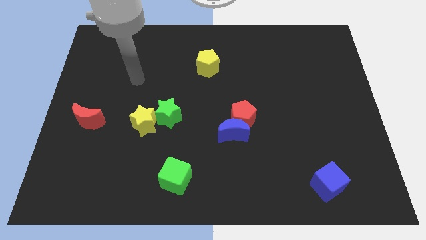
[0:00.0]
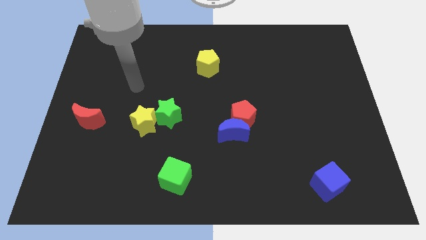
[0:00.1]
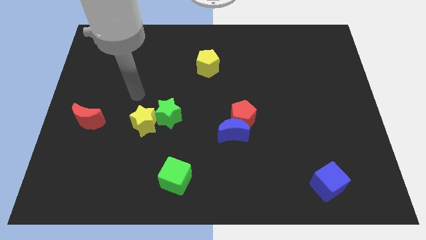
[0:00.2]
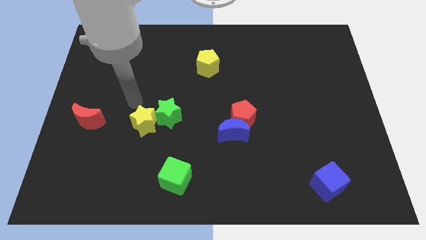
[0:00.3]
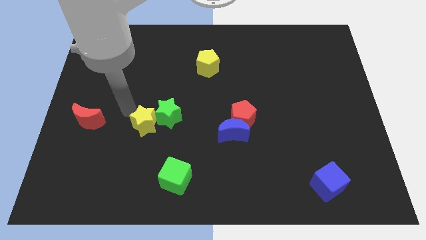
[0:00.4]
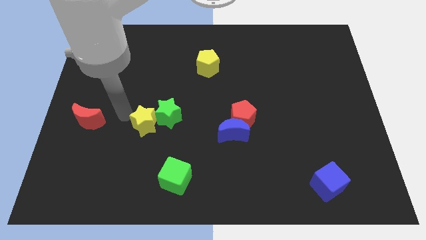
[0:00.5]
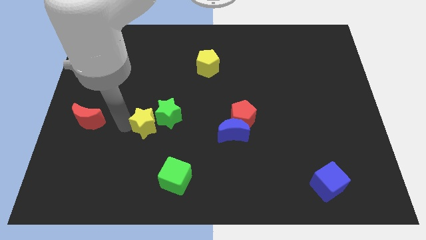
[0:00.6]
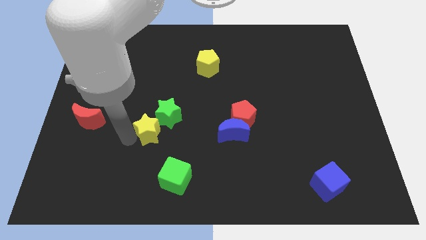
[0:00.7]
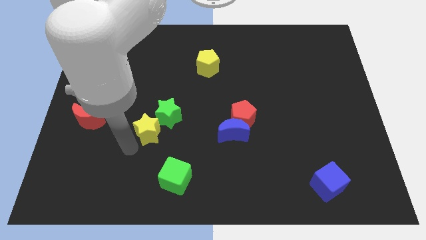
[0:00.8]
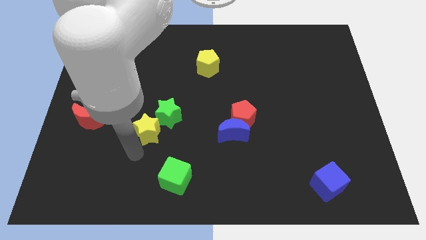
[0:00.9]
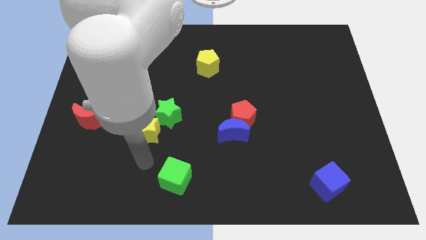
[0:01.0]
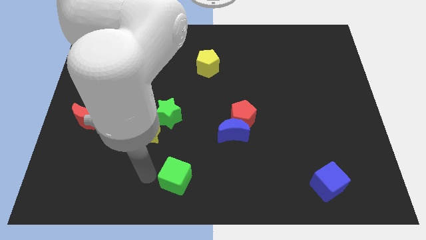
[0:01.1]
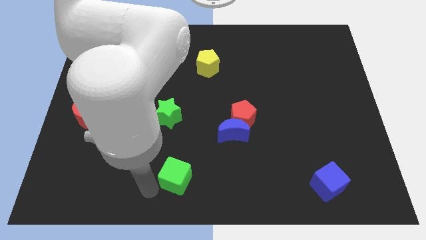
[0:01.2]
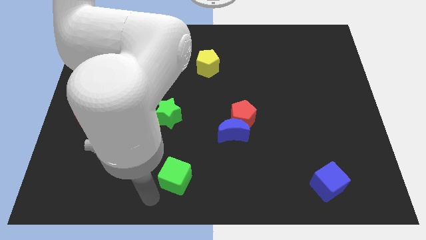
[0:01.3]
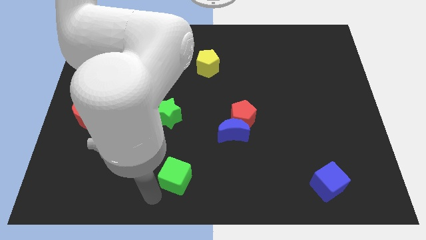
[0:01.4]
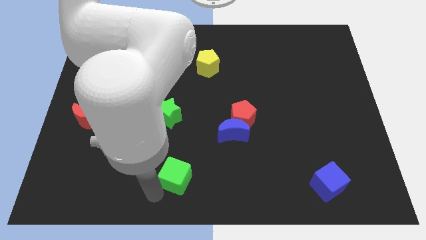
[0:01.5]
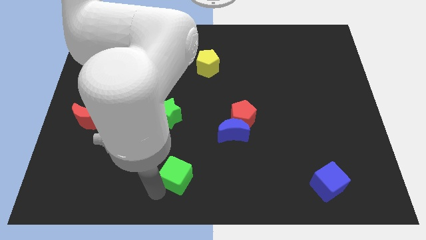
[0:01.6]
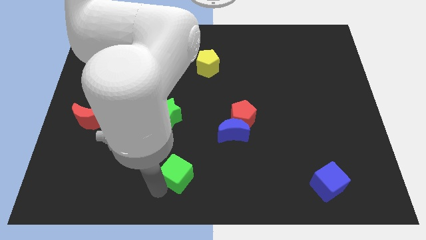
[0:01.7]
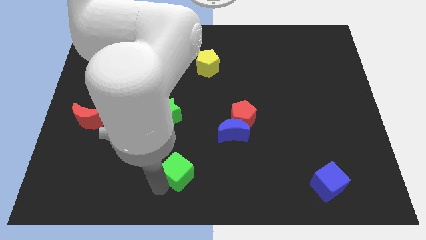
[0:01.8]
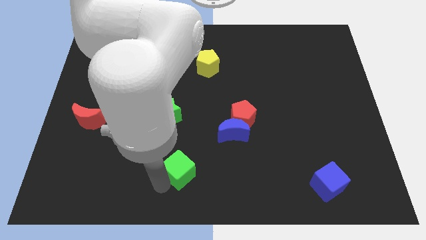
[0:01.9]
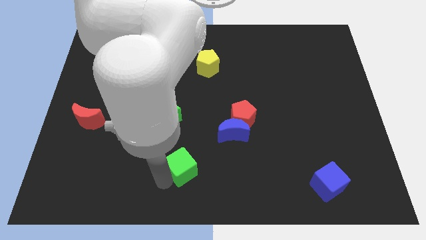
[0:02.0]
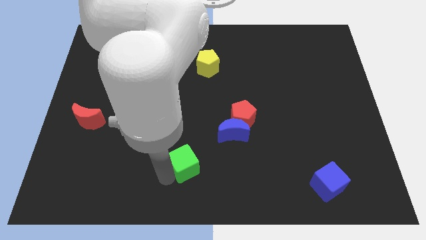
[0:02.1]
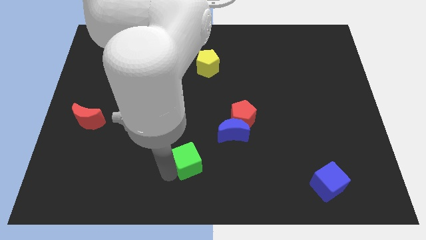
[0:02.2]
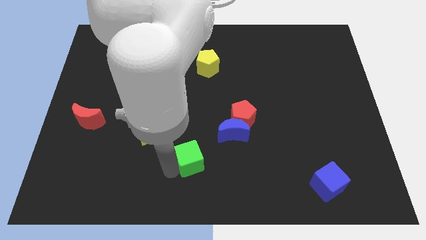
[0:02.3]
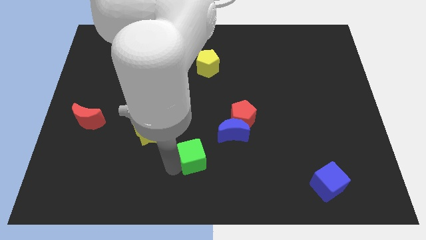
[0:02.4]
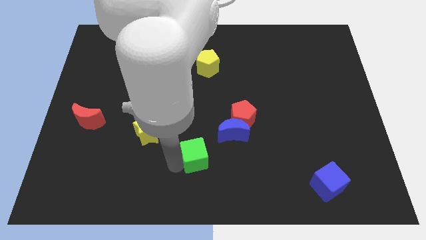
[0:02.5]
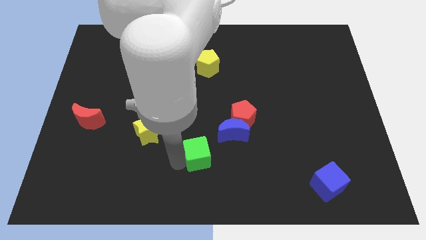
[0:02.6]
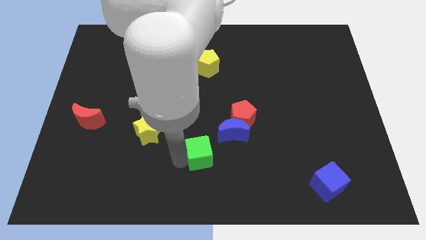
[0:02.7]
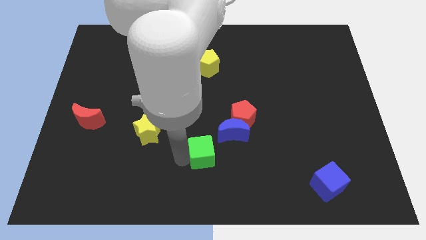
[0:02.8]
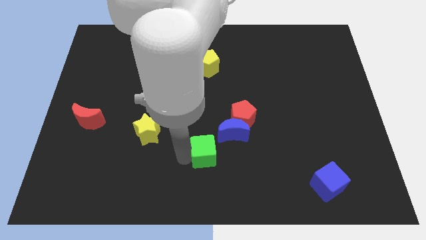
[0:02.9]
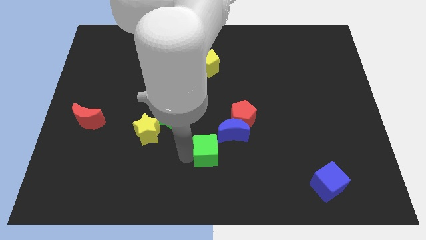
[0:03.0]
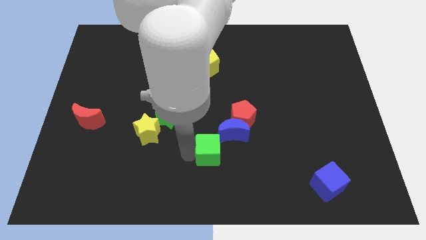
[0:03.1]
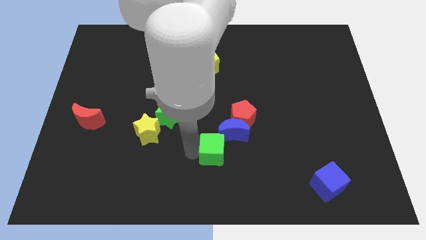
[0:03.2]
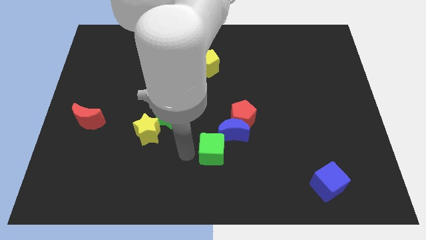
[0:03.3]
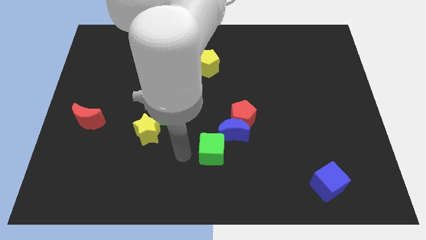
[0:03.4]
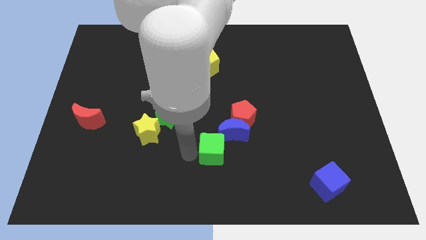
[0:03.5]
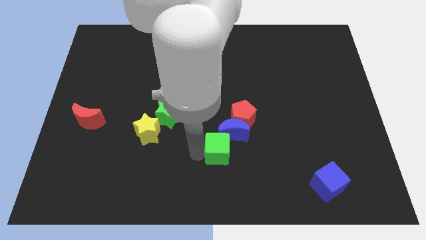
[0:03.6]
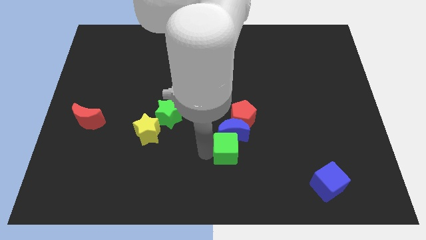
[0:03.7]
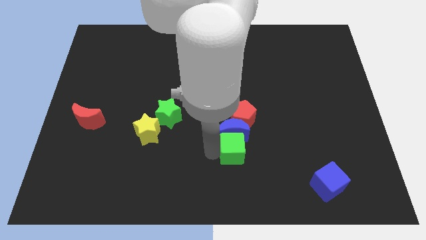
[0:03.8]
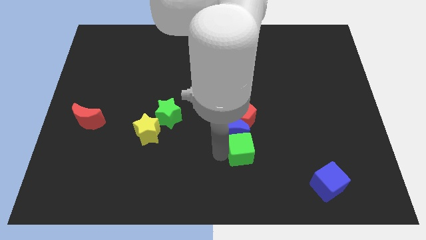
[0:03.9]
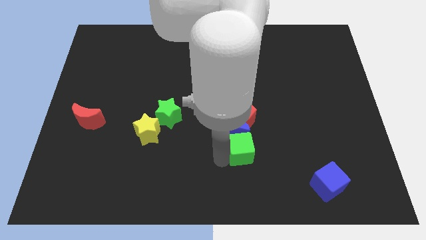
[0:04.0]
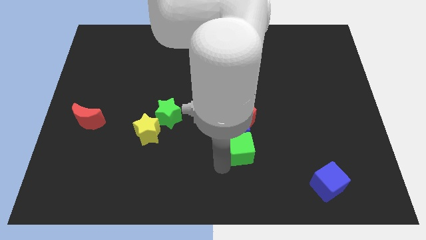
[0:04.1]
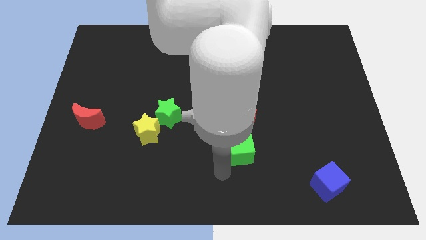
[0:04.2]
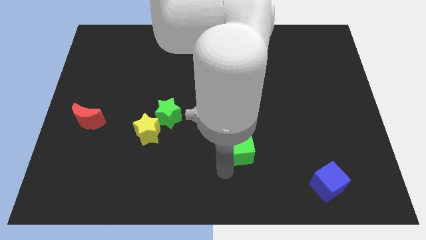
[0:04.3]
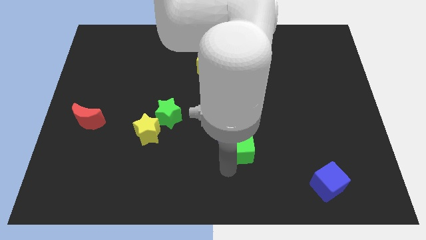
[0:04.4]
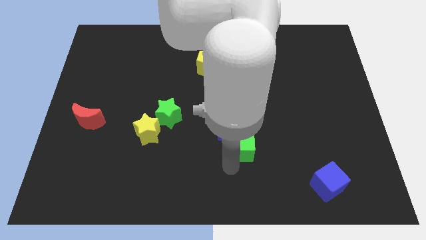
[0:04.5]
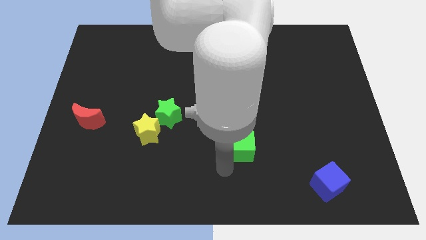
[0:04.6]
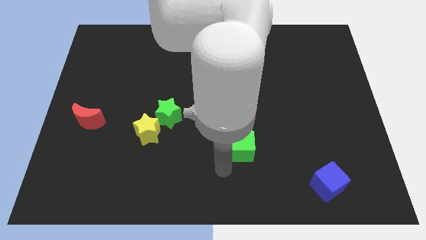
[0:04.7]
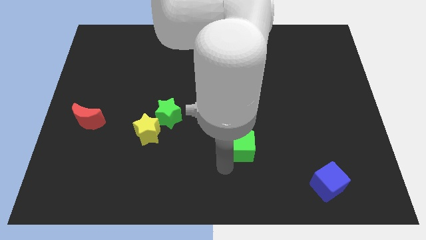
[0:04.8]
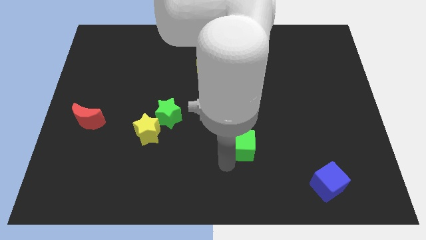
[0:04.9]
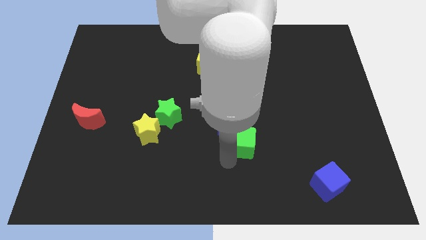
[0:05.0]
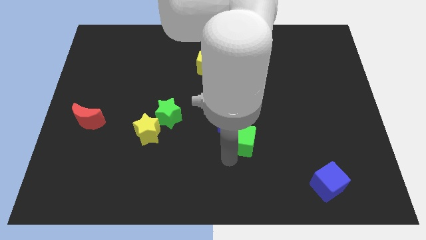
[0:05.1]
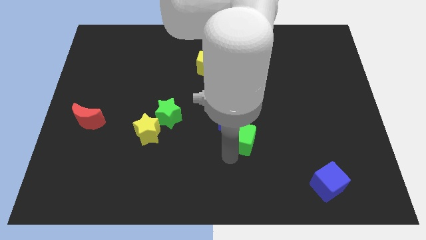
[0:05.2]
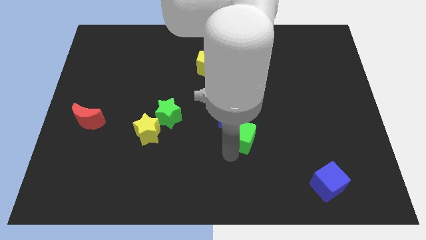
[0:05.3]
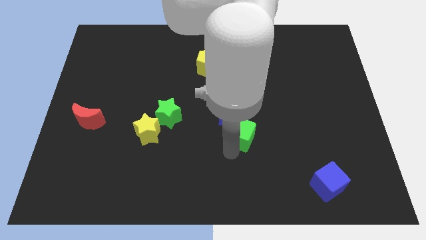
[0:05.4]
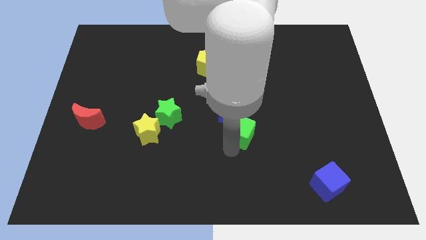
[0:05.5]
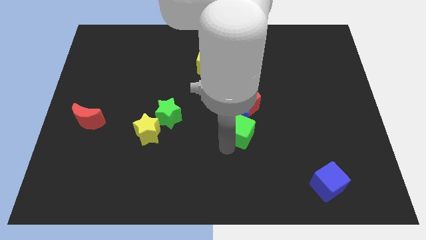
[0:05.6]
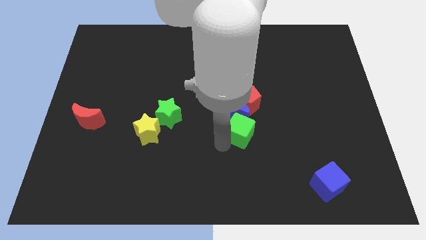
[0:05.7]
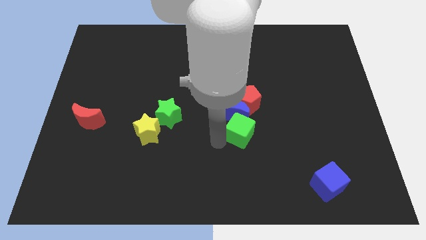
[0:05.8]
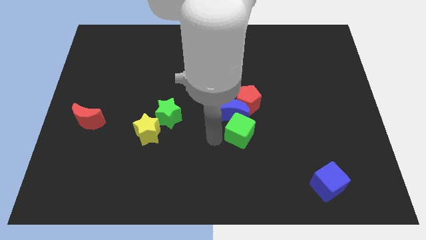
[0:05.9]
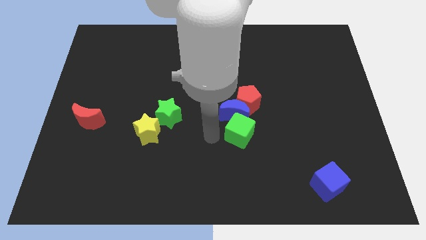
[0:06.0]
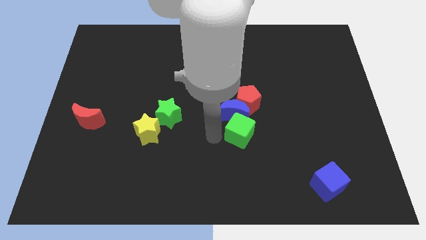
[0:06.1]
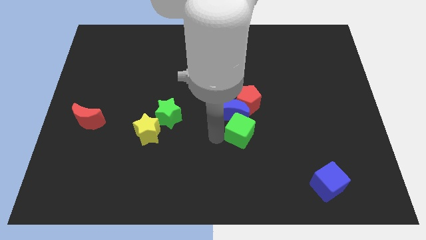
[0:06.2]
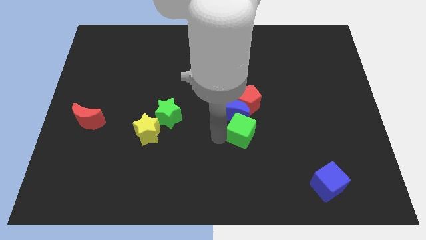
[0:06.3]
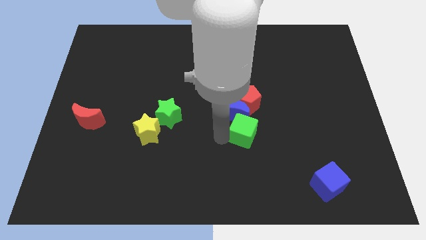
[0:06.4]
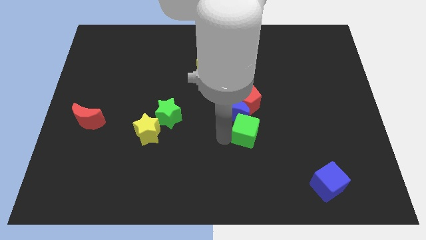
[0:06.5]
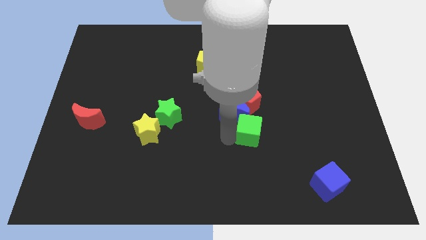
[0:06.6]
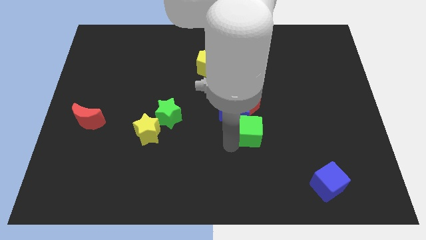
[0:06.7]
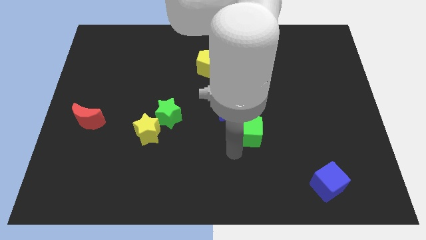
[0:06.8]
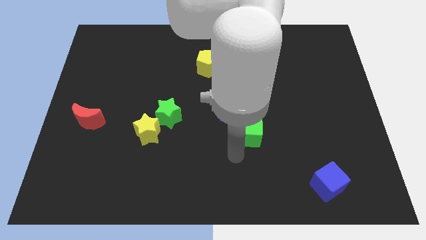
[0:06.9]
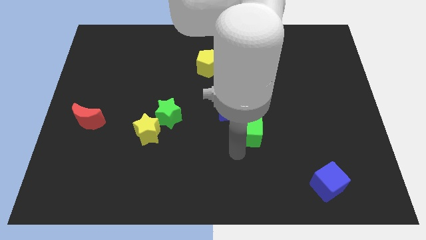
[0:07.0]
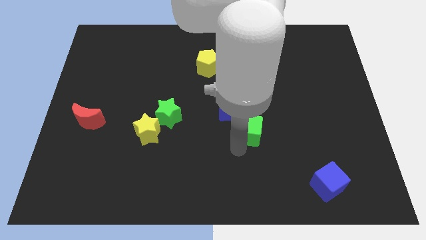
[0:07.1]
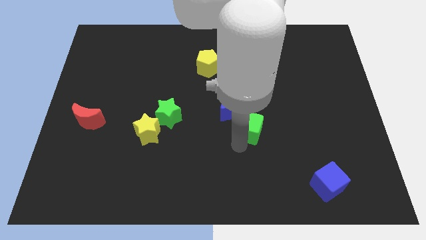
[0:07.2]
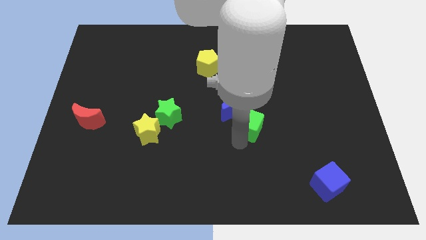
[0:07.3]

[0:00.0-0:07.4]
push the green cube upwards and right diagonally

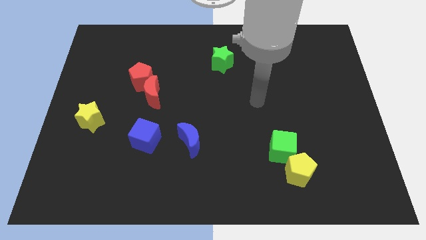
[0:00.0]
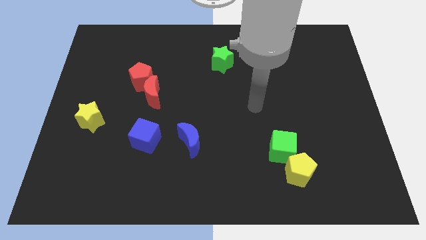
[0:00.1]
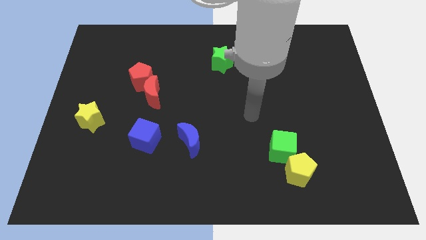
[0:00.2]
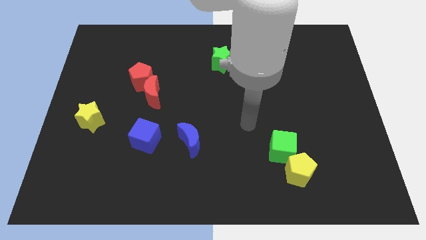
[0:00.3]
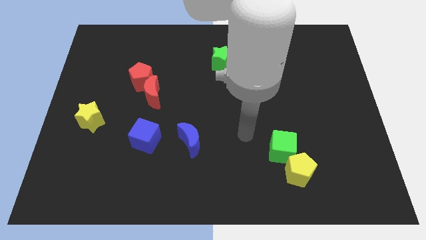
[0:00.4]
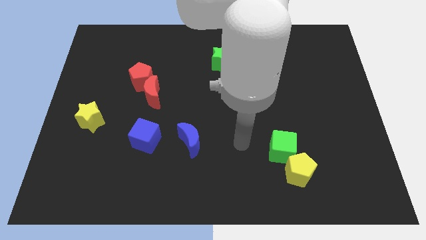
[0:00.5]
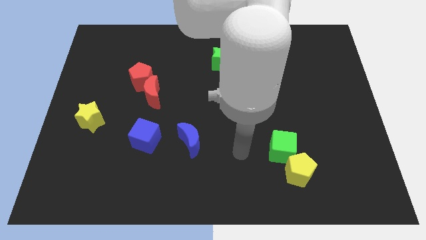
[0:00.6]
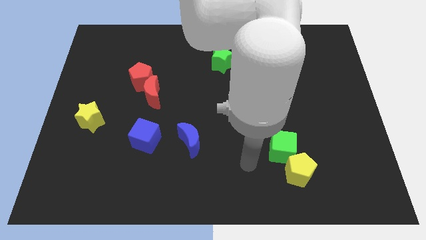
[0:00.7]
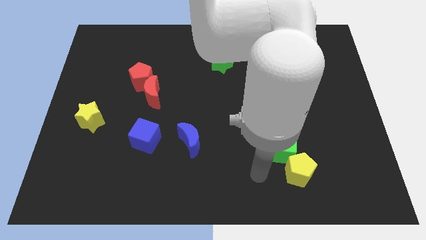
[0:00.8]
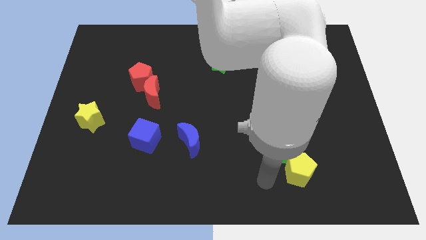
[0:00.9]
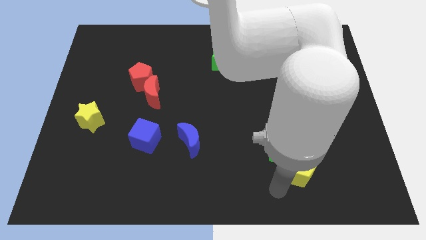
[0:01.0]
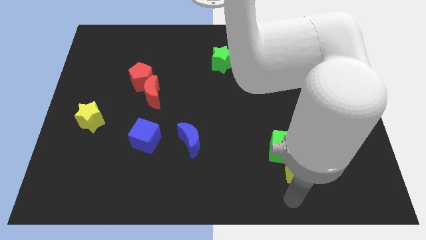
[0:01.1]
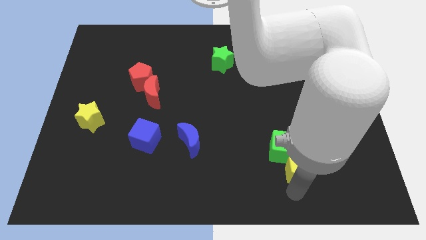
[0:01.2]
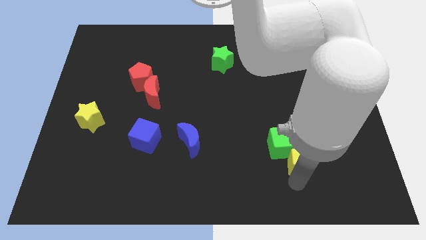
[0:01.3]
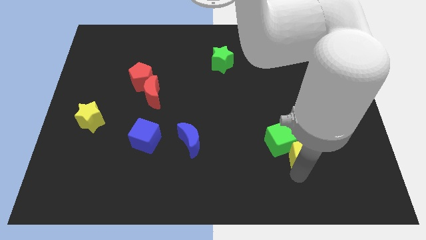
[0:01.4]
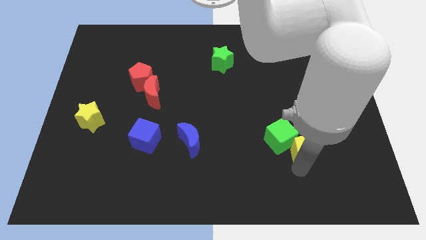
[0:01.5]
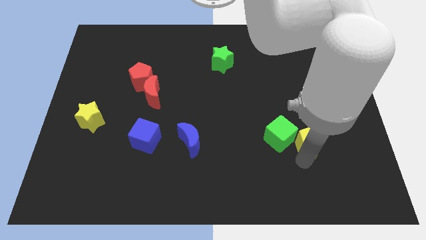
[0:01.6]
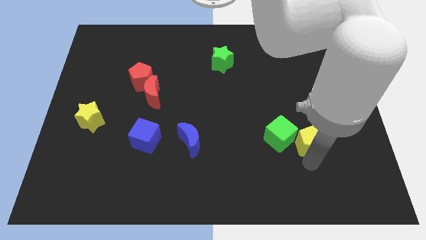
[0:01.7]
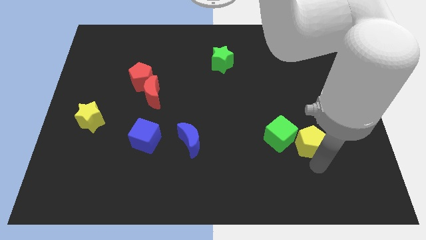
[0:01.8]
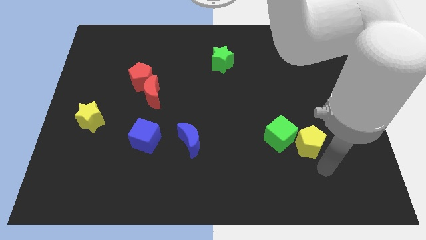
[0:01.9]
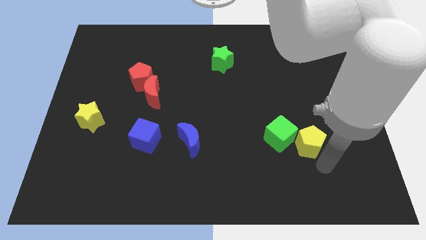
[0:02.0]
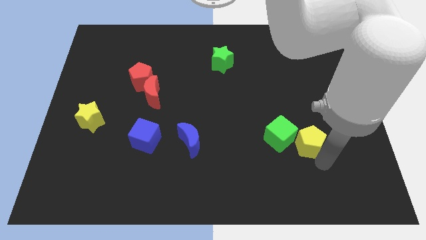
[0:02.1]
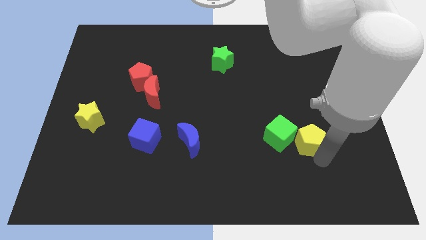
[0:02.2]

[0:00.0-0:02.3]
move the yellow pentagon a little bit up
